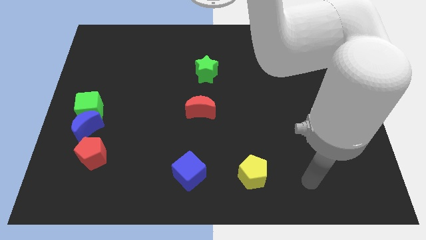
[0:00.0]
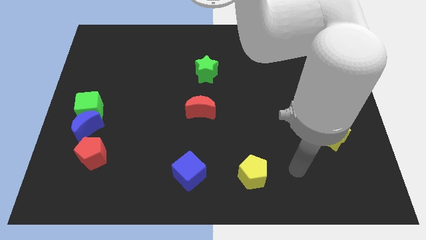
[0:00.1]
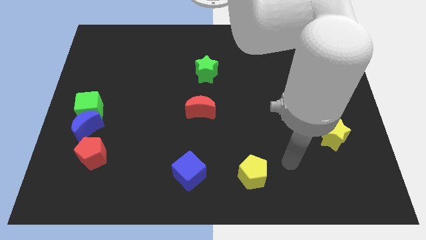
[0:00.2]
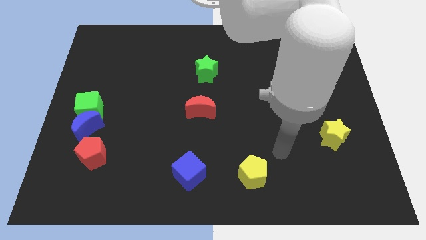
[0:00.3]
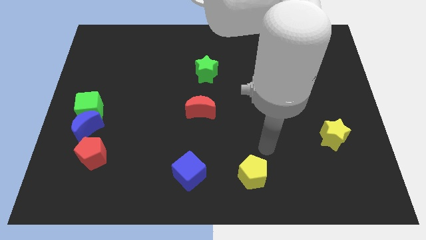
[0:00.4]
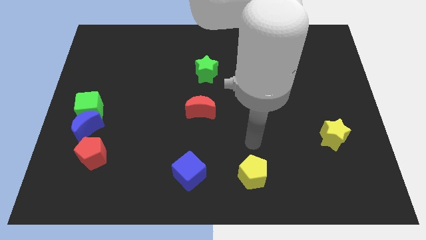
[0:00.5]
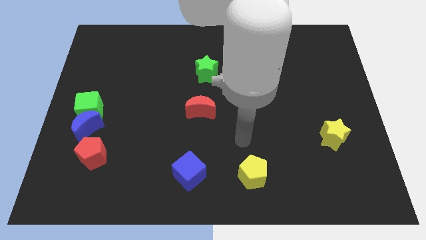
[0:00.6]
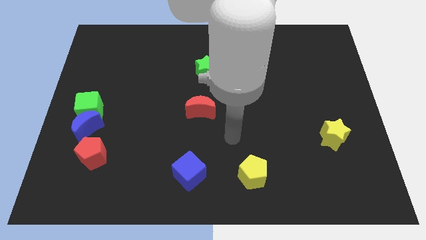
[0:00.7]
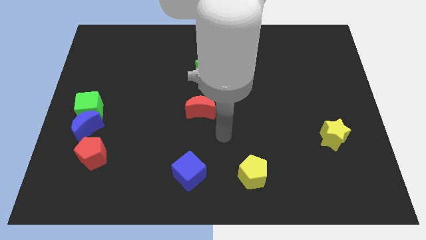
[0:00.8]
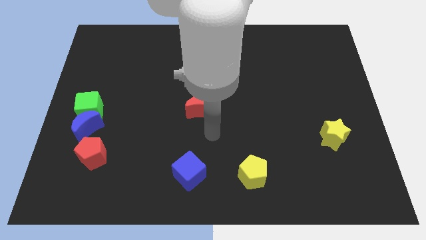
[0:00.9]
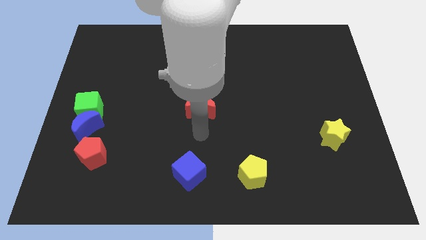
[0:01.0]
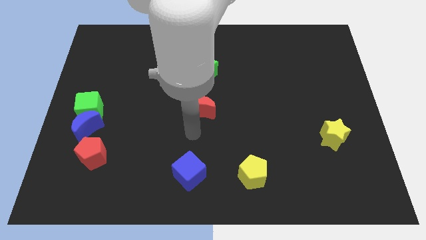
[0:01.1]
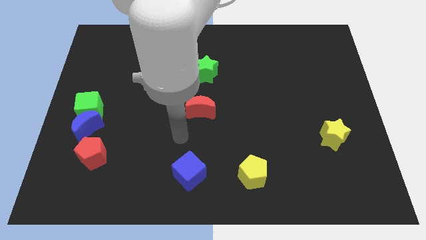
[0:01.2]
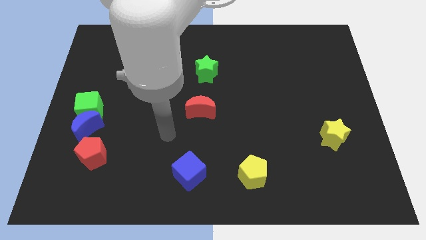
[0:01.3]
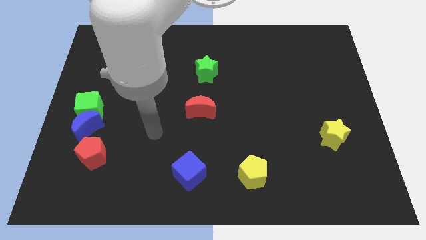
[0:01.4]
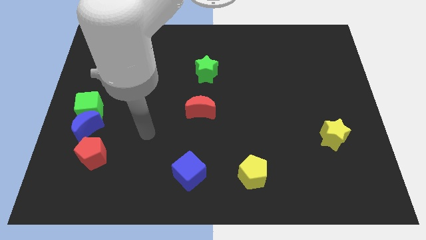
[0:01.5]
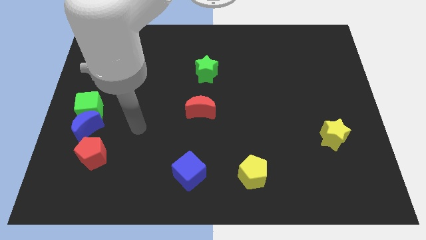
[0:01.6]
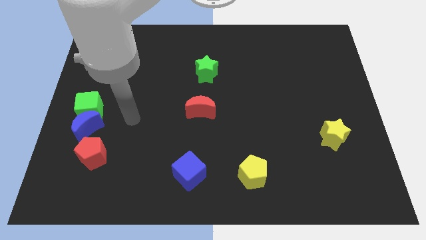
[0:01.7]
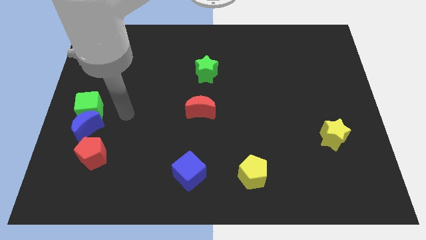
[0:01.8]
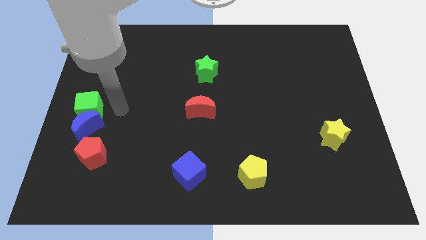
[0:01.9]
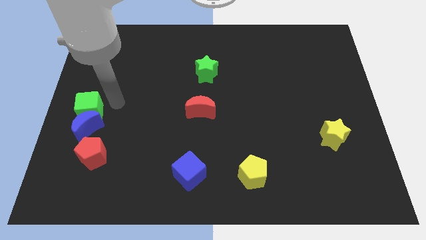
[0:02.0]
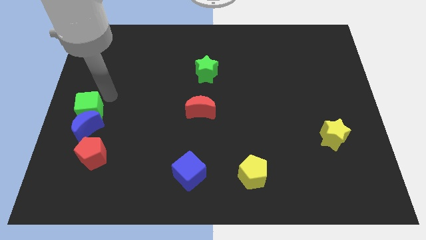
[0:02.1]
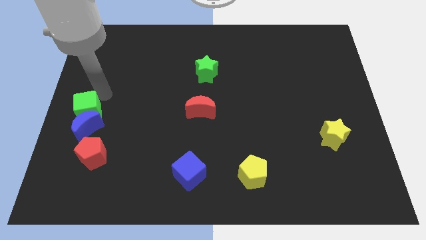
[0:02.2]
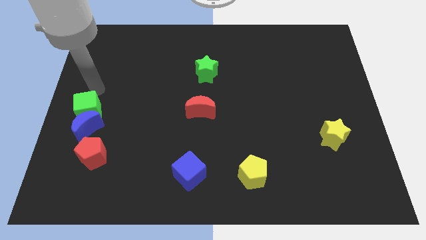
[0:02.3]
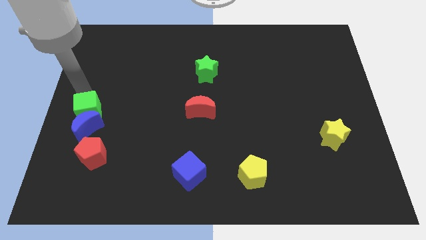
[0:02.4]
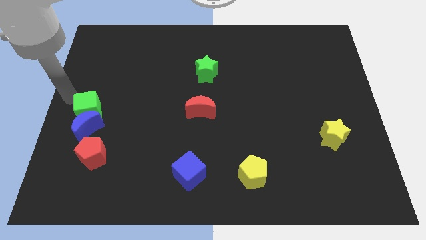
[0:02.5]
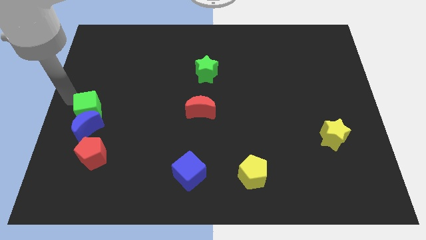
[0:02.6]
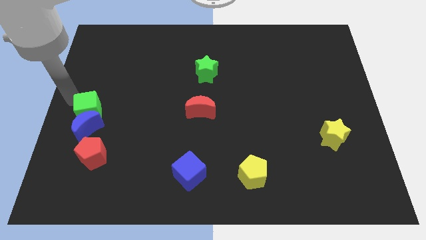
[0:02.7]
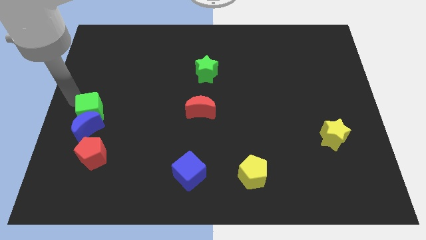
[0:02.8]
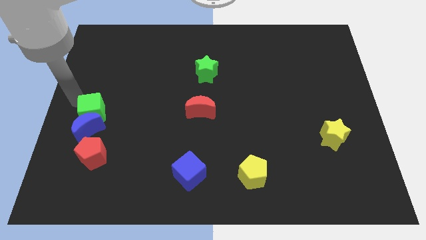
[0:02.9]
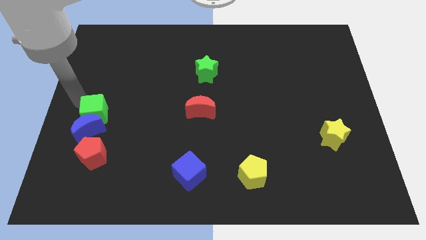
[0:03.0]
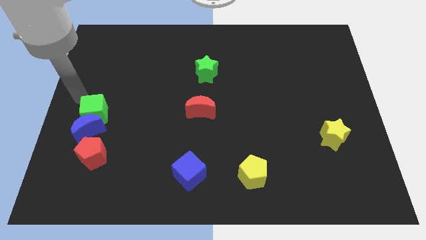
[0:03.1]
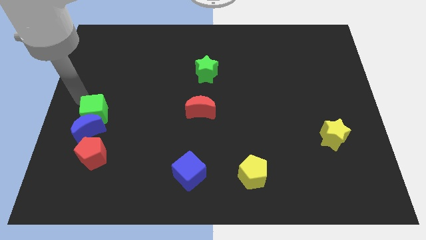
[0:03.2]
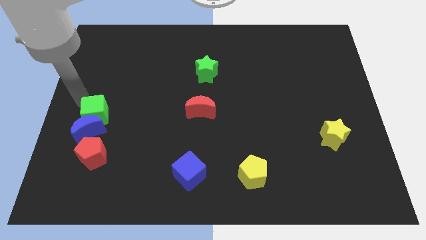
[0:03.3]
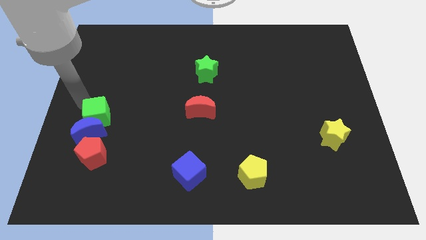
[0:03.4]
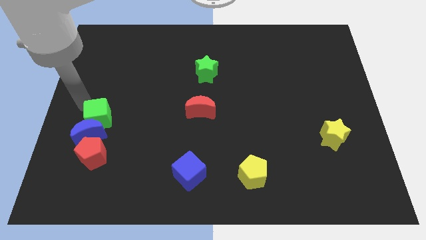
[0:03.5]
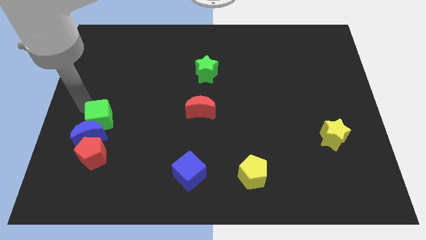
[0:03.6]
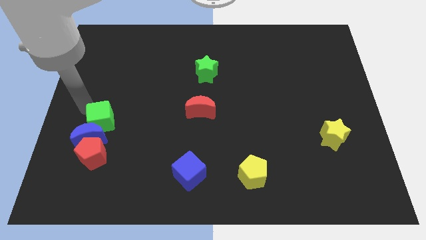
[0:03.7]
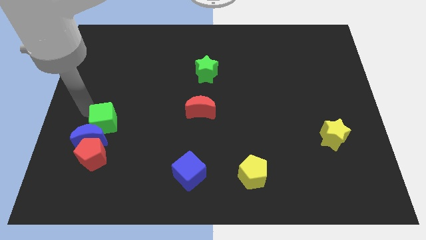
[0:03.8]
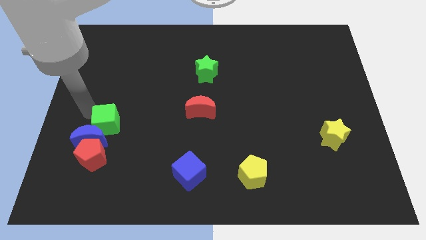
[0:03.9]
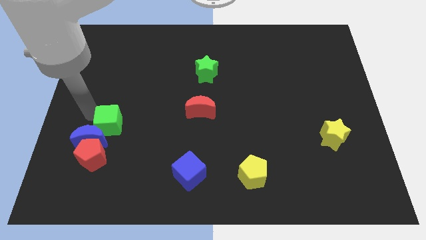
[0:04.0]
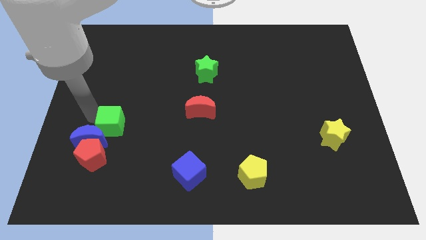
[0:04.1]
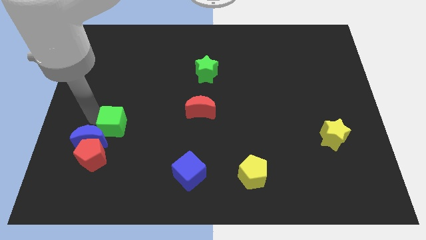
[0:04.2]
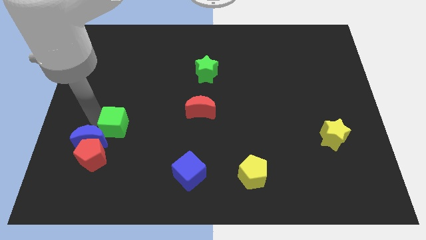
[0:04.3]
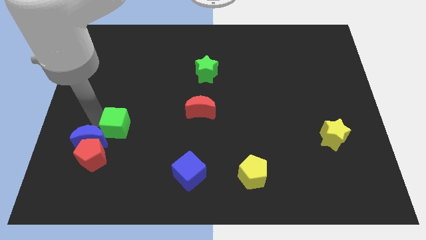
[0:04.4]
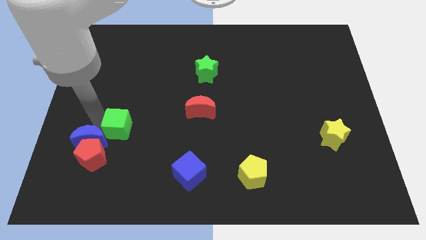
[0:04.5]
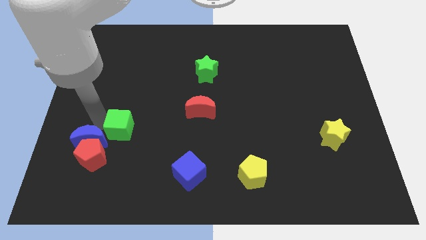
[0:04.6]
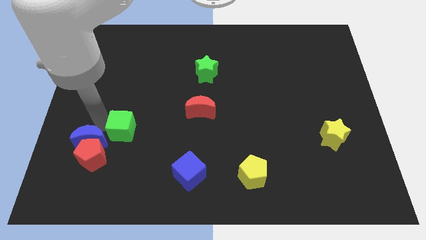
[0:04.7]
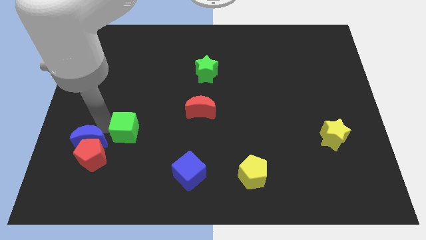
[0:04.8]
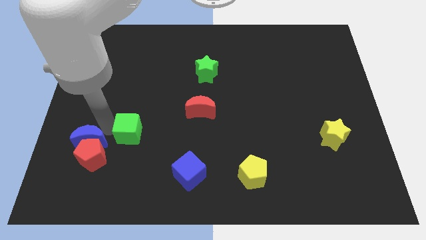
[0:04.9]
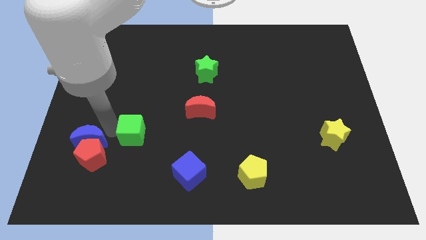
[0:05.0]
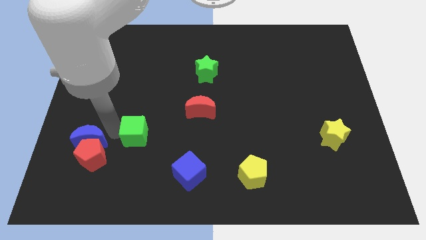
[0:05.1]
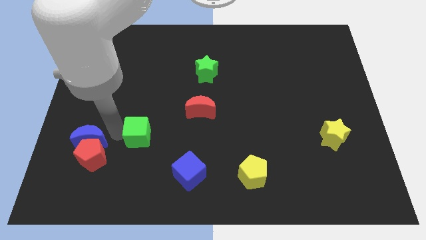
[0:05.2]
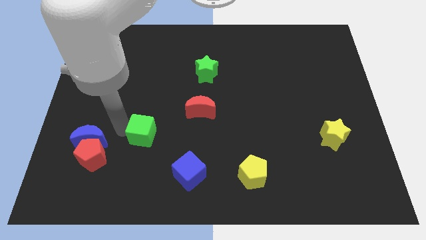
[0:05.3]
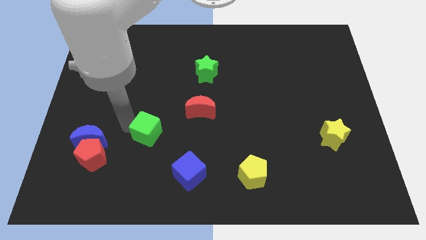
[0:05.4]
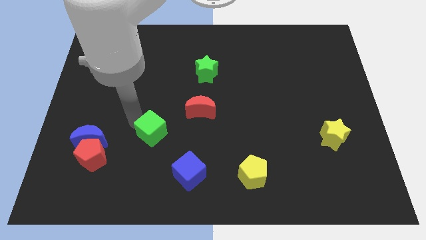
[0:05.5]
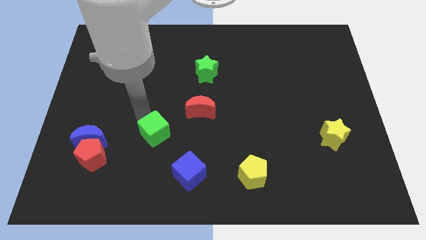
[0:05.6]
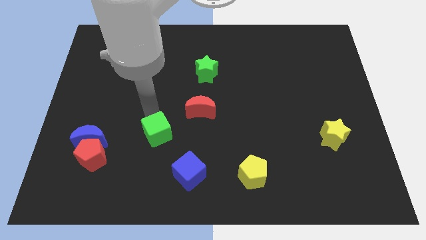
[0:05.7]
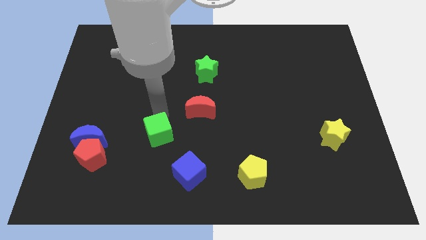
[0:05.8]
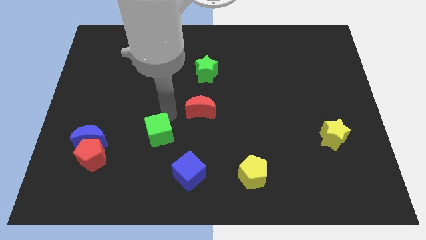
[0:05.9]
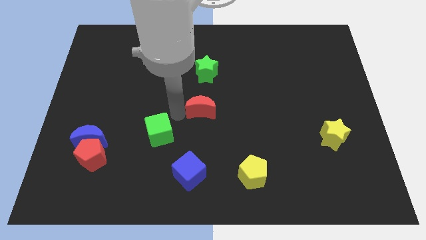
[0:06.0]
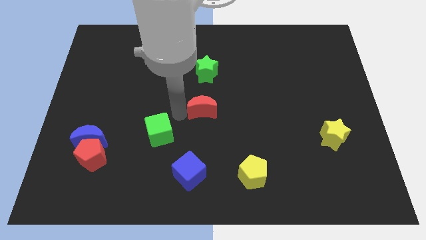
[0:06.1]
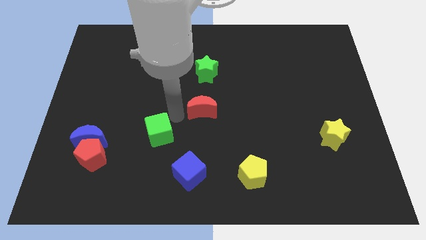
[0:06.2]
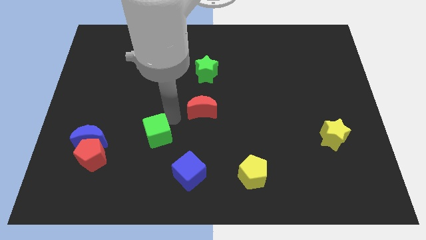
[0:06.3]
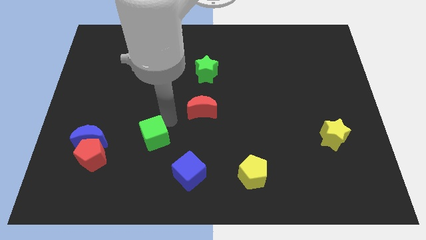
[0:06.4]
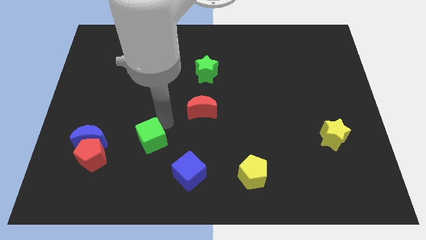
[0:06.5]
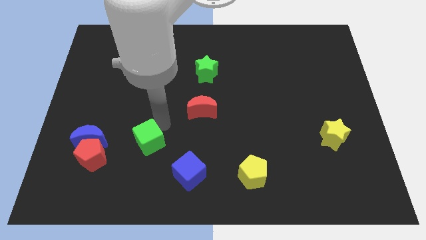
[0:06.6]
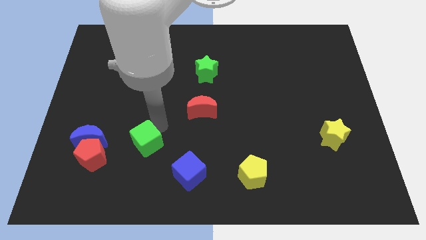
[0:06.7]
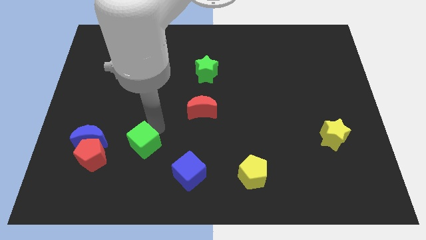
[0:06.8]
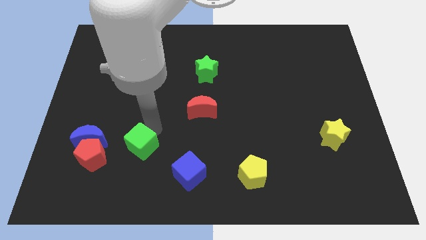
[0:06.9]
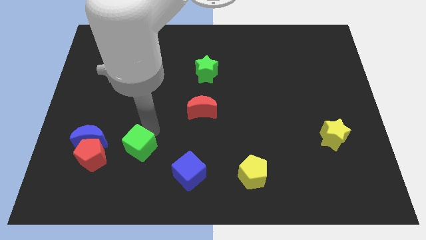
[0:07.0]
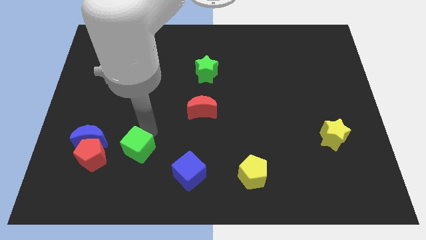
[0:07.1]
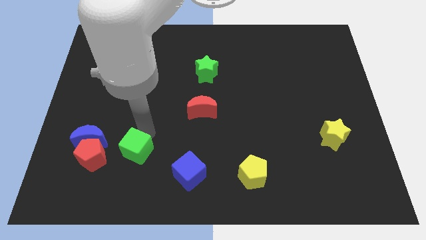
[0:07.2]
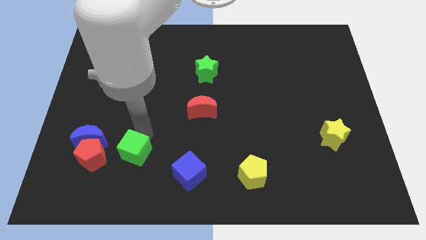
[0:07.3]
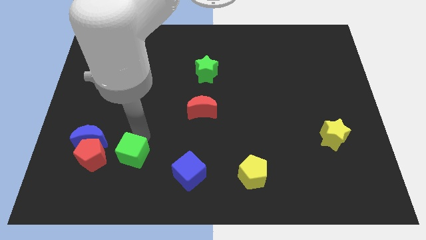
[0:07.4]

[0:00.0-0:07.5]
push the green cube left of the blue cube

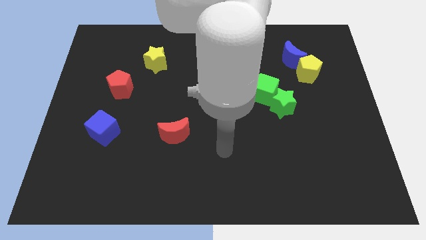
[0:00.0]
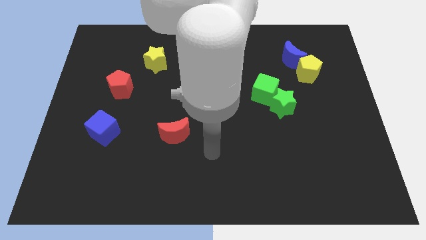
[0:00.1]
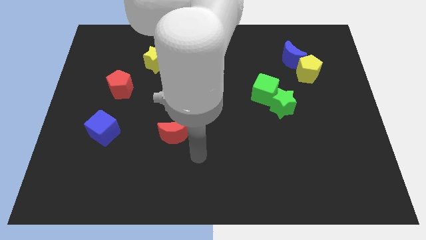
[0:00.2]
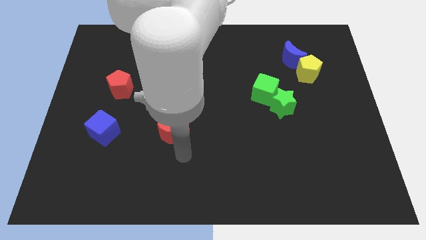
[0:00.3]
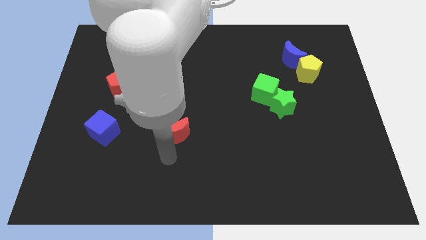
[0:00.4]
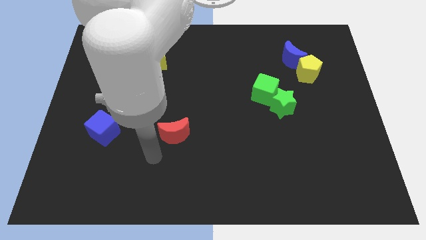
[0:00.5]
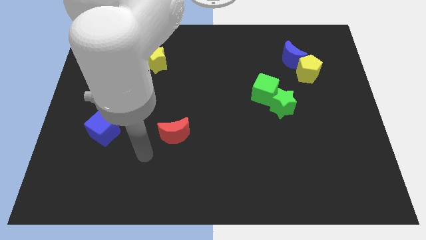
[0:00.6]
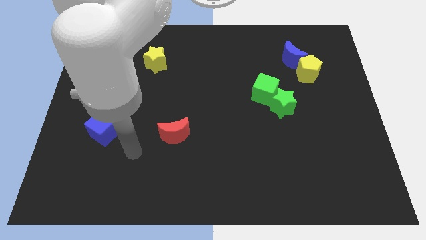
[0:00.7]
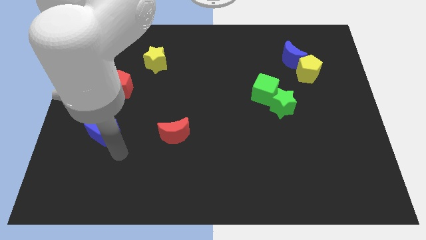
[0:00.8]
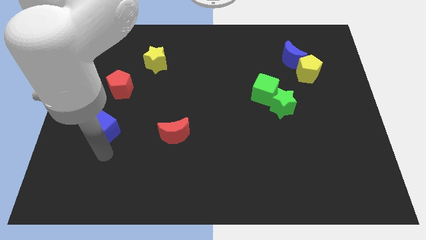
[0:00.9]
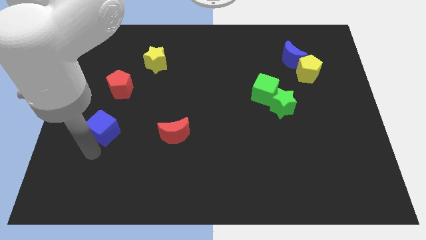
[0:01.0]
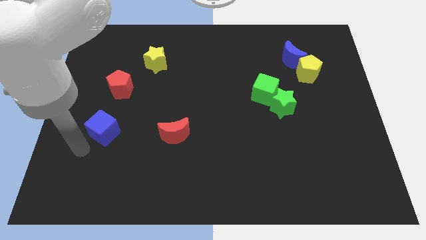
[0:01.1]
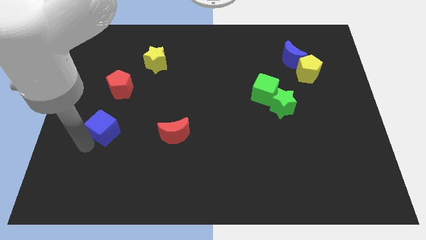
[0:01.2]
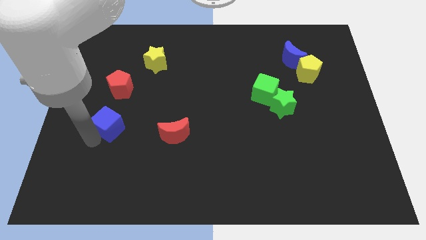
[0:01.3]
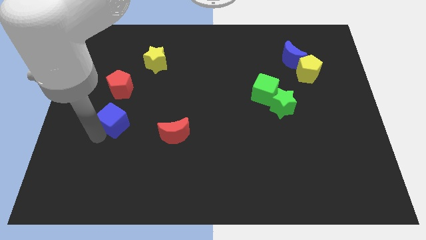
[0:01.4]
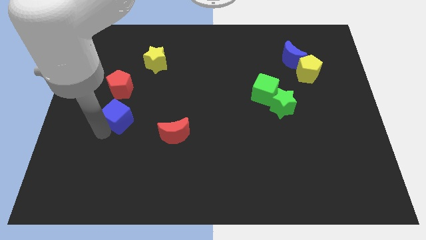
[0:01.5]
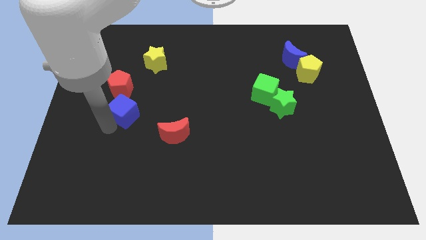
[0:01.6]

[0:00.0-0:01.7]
put the blue cube diagonally down and to the right of the red pentagon
